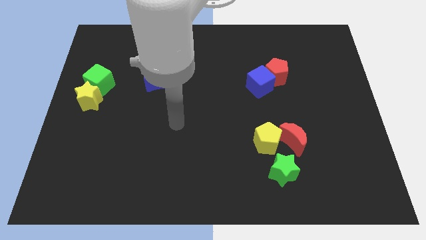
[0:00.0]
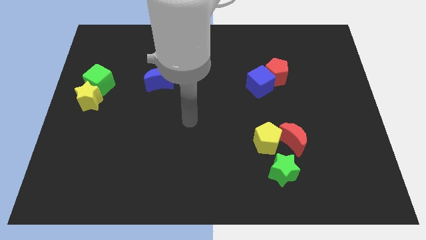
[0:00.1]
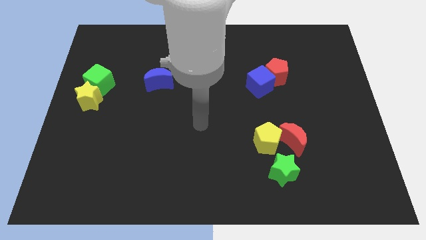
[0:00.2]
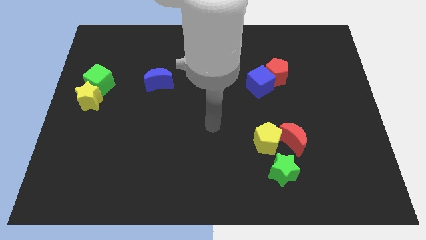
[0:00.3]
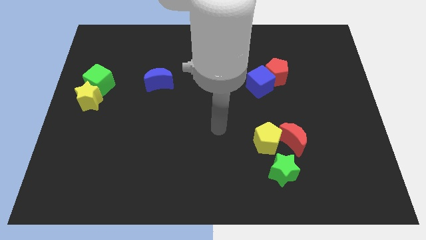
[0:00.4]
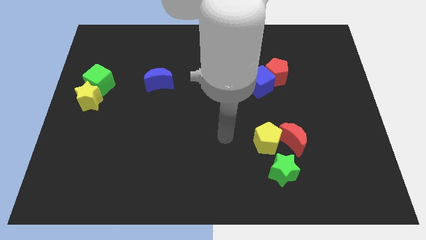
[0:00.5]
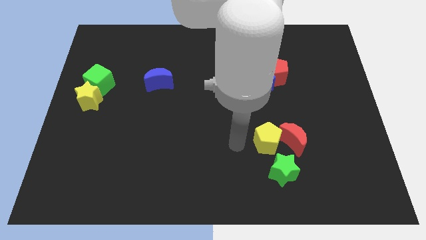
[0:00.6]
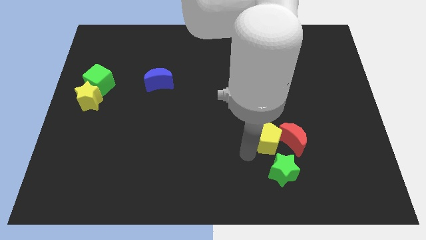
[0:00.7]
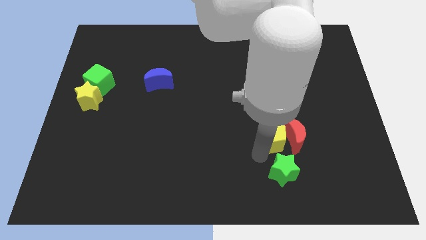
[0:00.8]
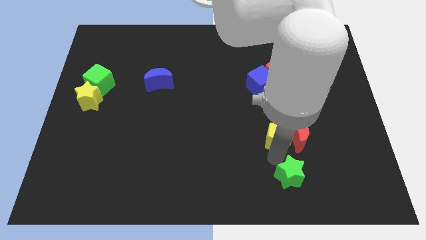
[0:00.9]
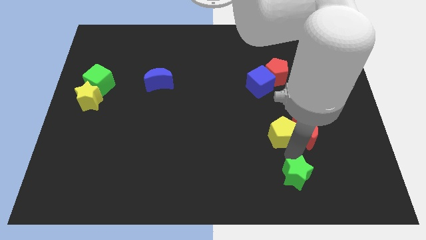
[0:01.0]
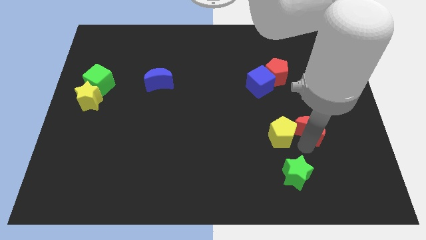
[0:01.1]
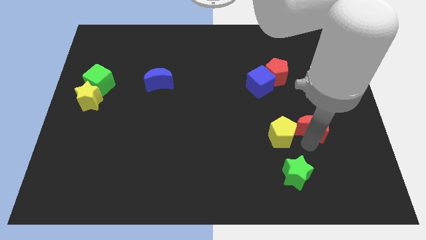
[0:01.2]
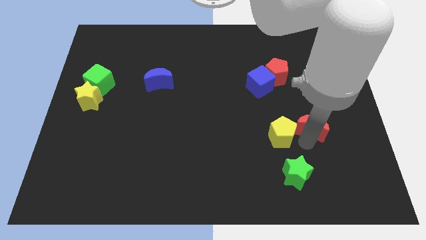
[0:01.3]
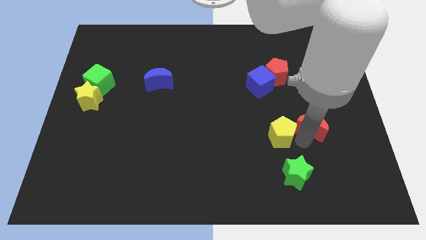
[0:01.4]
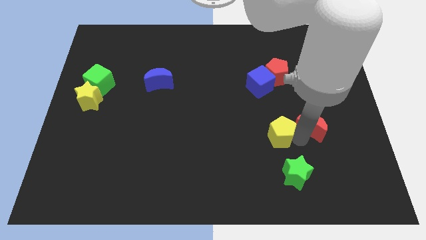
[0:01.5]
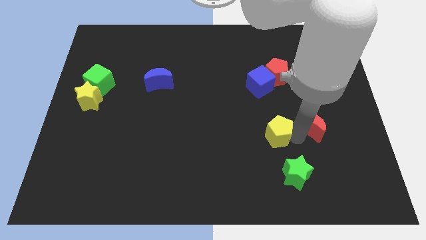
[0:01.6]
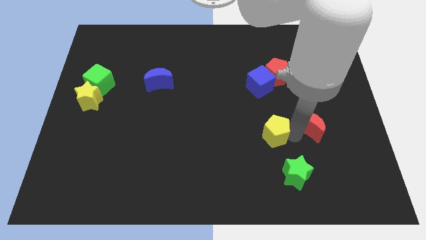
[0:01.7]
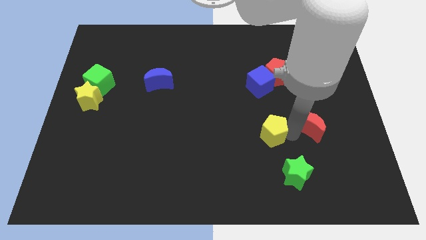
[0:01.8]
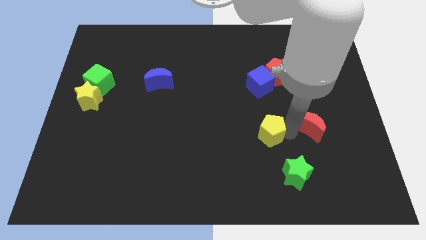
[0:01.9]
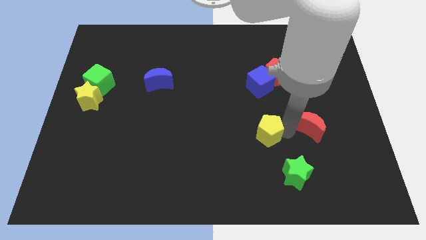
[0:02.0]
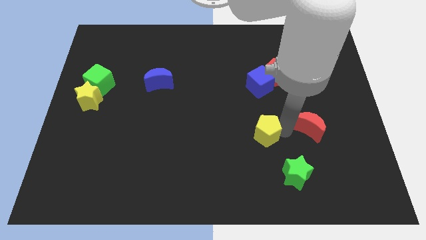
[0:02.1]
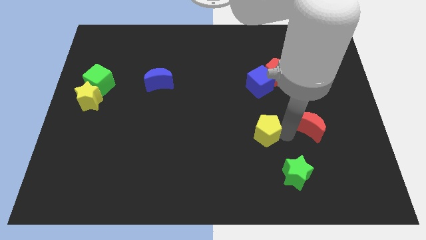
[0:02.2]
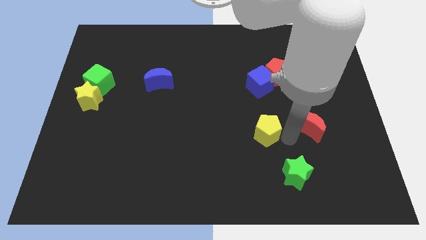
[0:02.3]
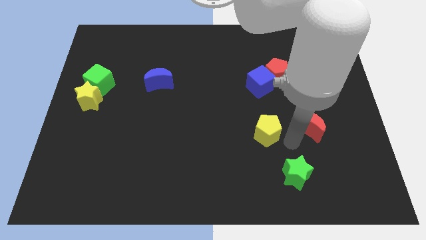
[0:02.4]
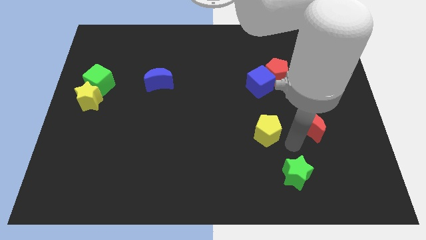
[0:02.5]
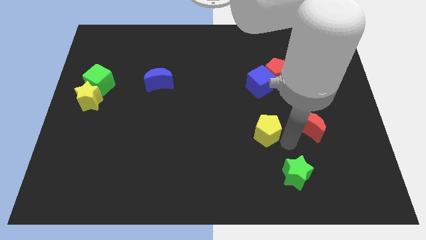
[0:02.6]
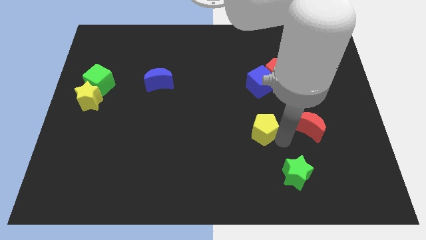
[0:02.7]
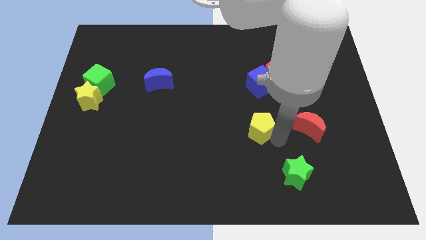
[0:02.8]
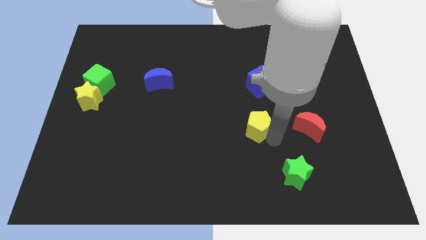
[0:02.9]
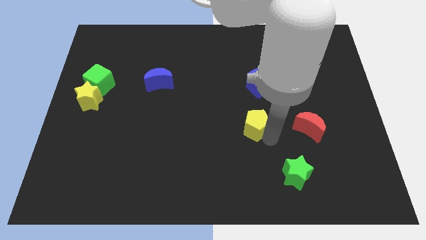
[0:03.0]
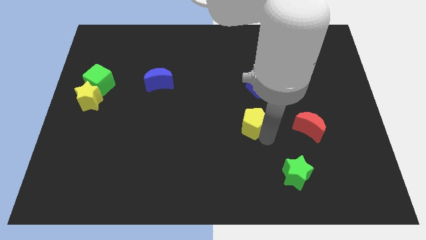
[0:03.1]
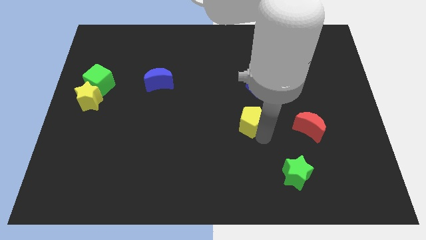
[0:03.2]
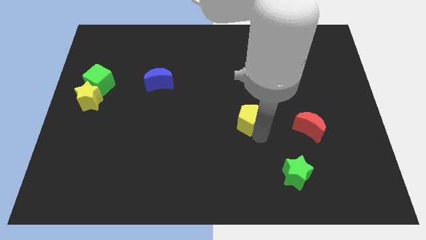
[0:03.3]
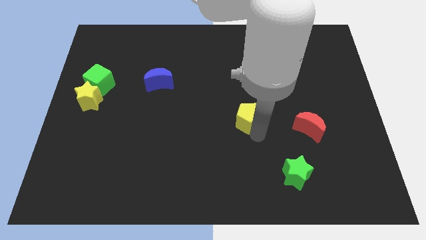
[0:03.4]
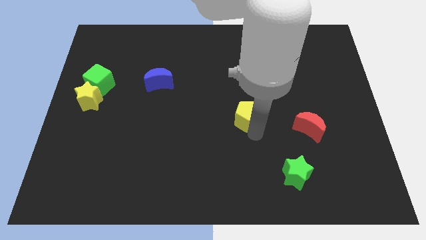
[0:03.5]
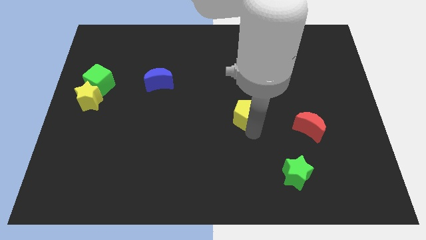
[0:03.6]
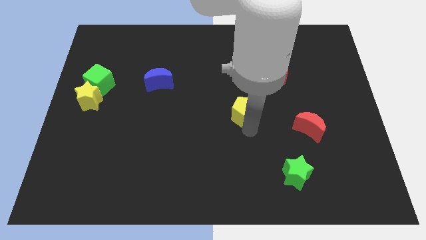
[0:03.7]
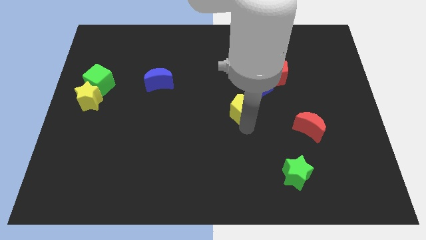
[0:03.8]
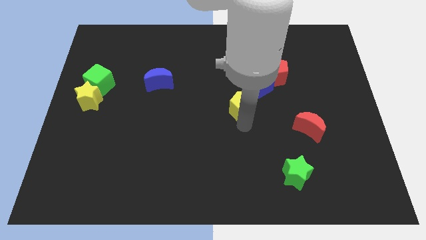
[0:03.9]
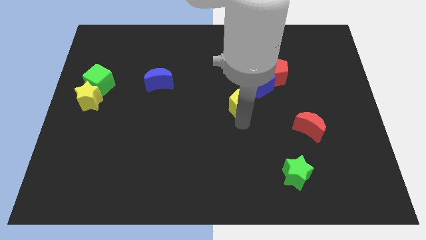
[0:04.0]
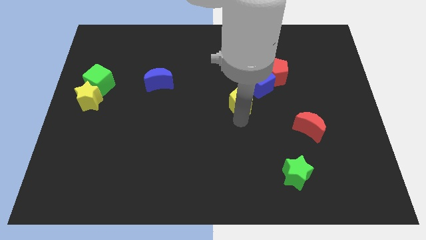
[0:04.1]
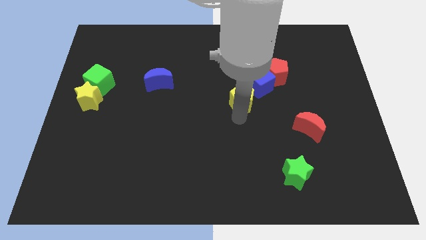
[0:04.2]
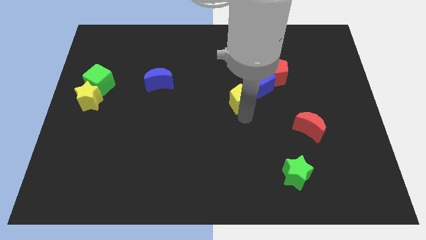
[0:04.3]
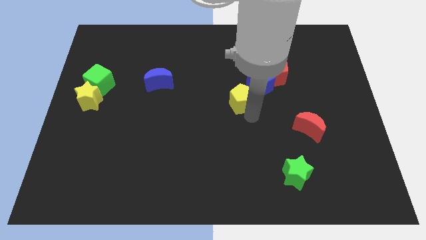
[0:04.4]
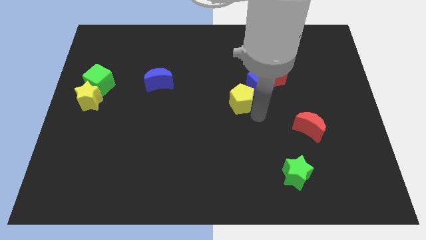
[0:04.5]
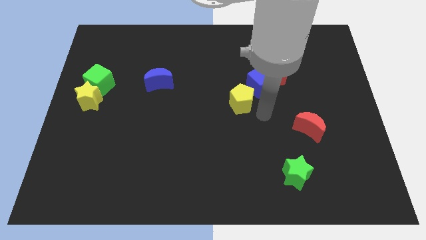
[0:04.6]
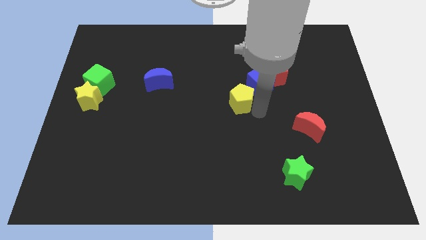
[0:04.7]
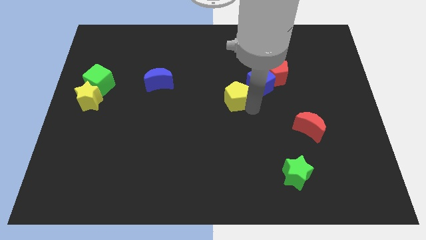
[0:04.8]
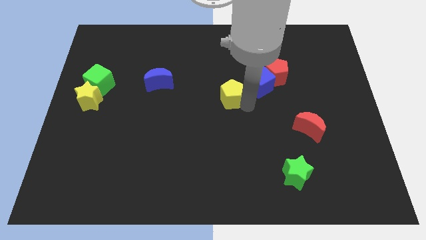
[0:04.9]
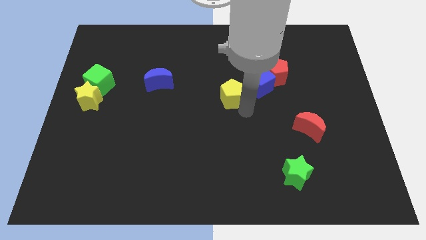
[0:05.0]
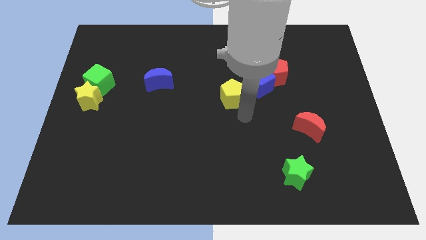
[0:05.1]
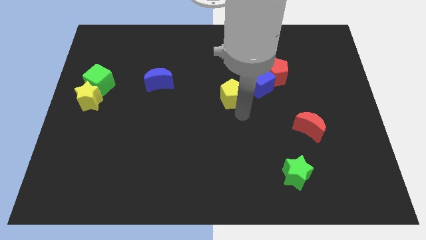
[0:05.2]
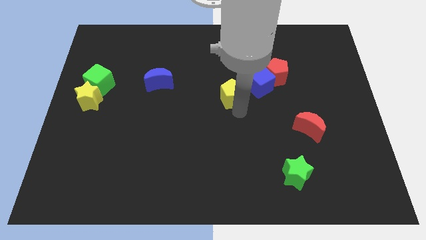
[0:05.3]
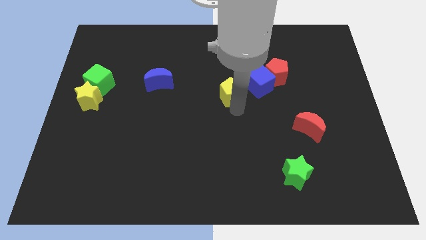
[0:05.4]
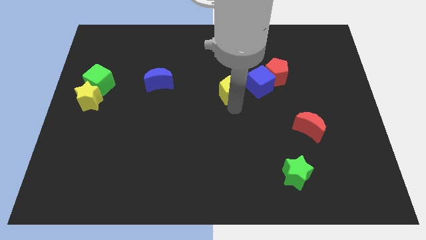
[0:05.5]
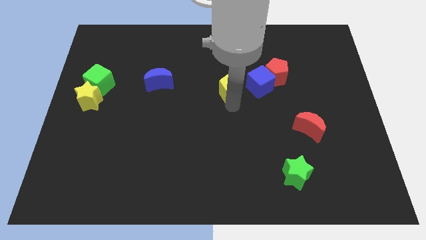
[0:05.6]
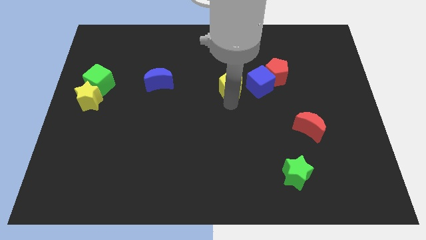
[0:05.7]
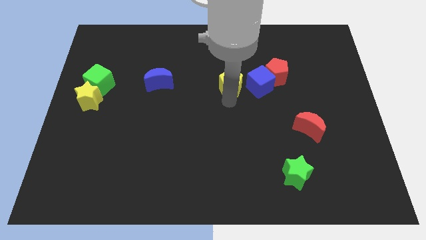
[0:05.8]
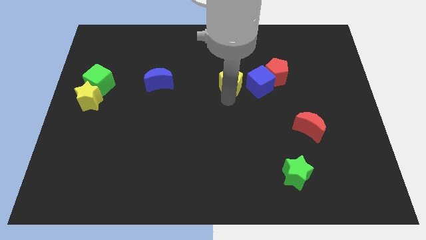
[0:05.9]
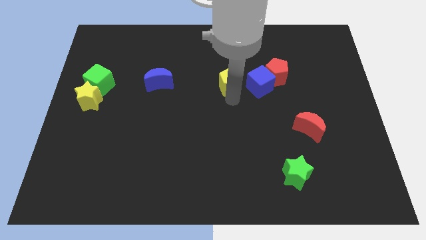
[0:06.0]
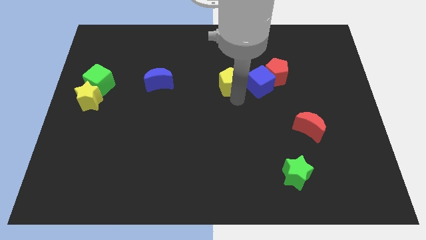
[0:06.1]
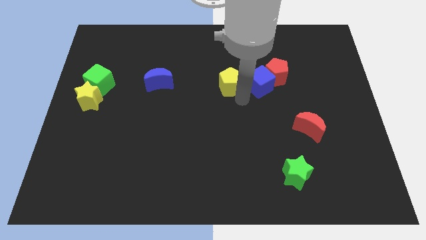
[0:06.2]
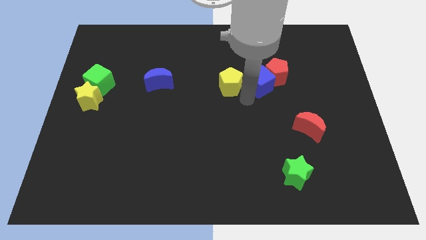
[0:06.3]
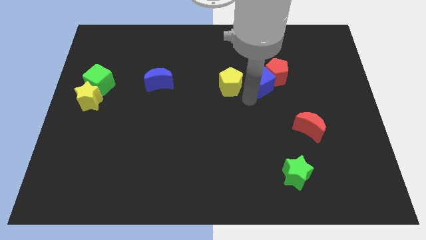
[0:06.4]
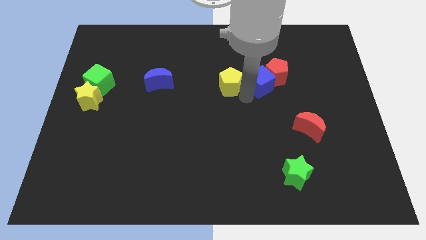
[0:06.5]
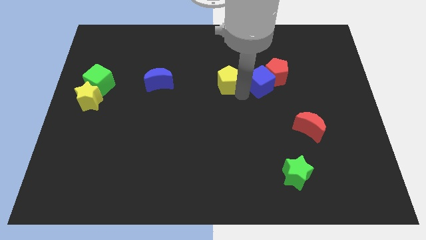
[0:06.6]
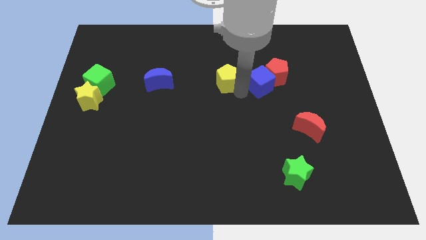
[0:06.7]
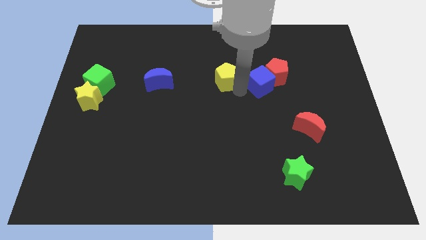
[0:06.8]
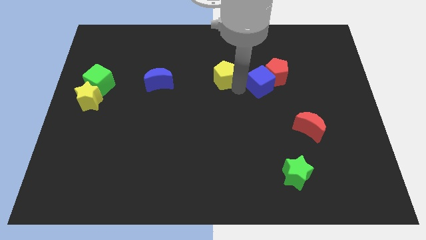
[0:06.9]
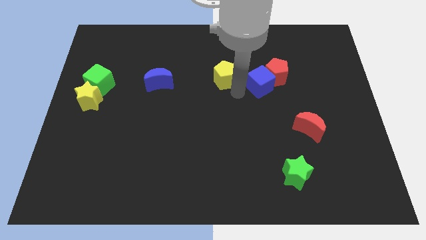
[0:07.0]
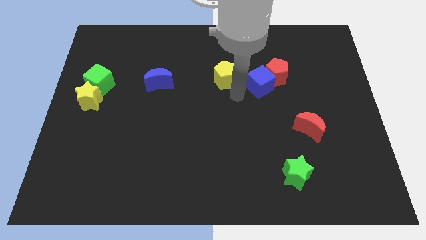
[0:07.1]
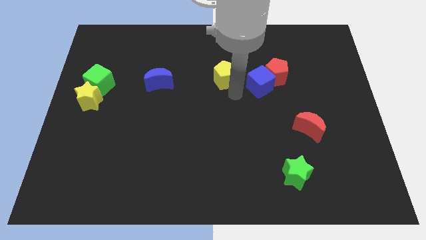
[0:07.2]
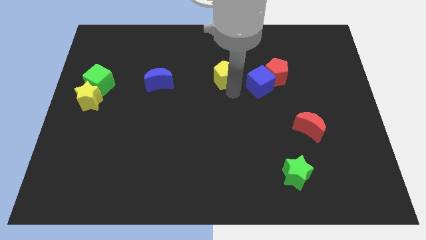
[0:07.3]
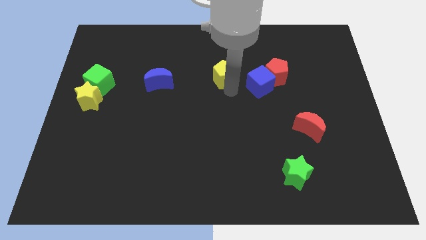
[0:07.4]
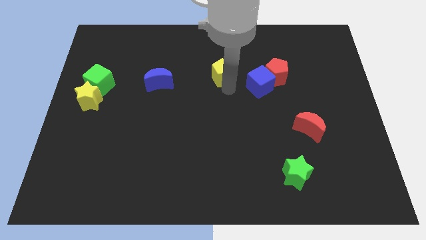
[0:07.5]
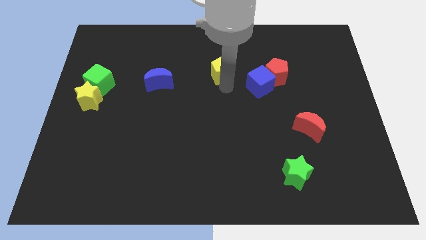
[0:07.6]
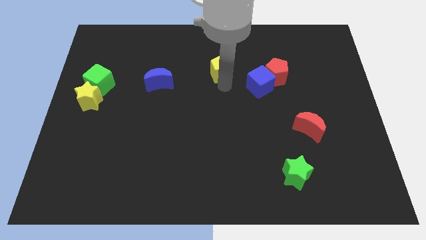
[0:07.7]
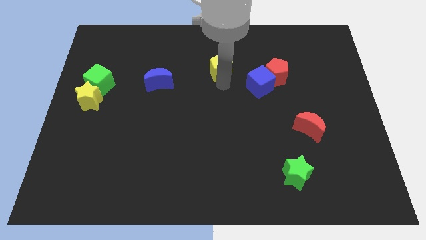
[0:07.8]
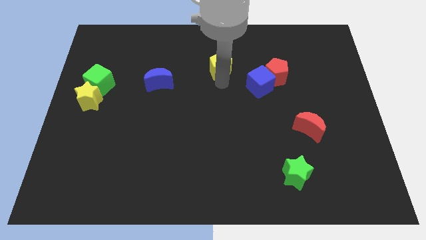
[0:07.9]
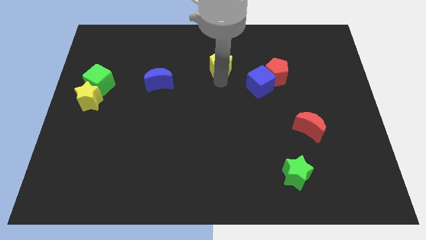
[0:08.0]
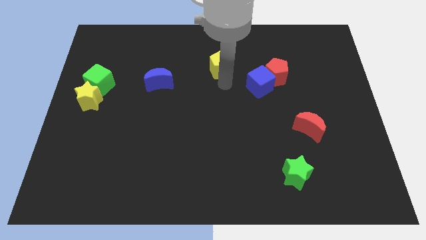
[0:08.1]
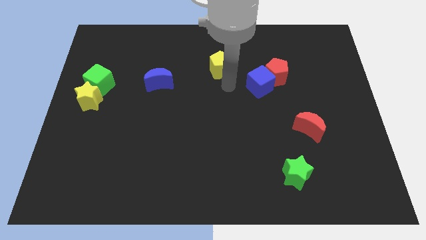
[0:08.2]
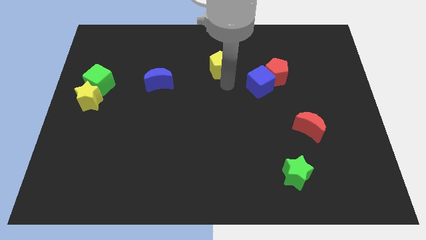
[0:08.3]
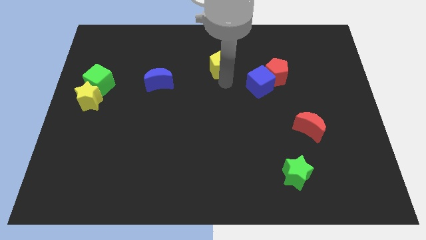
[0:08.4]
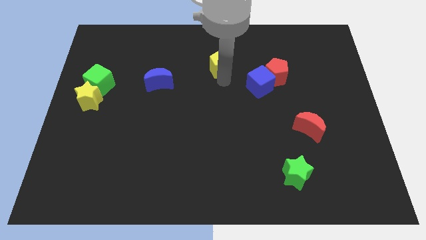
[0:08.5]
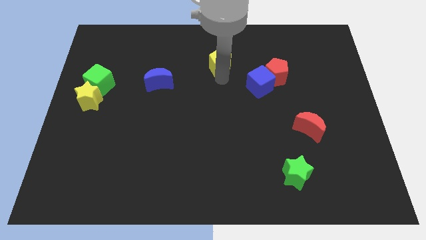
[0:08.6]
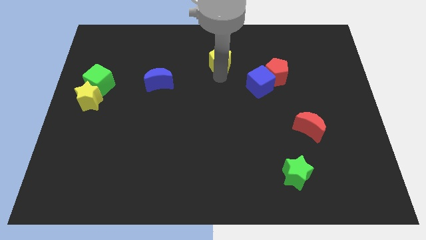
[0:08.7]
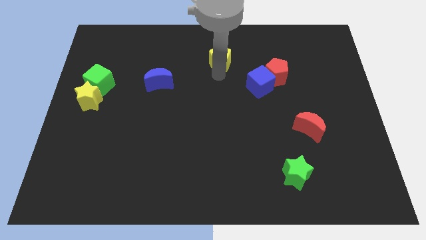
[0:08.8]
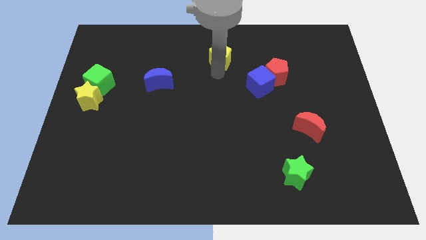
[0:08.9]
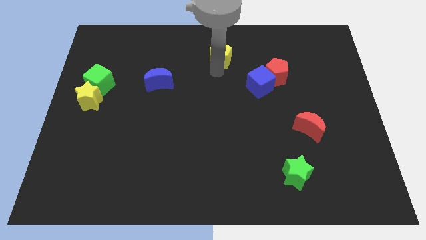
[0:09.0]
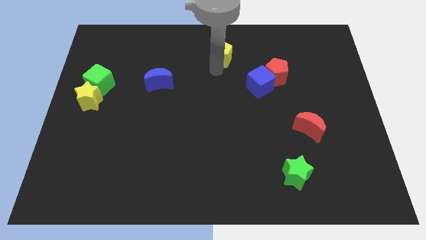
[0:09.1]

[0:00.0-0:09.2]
put the yellow pentagon to the top side
